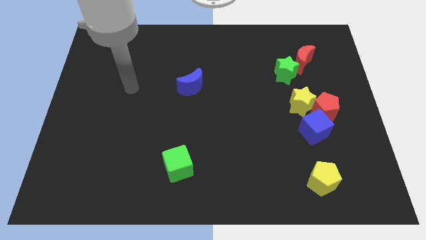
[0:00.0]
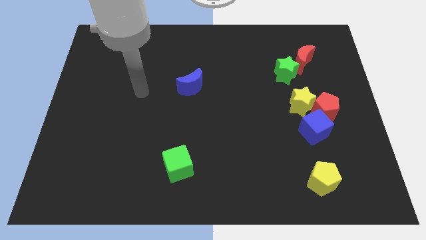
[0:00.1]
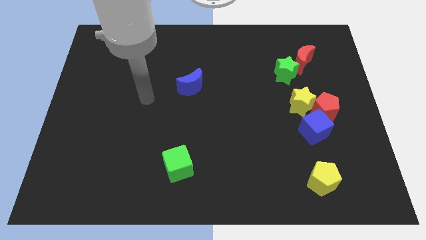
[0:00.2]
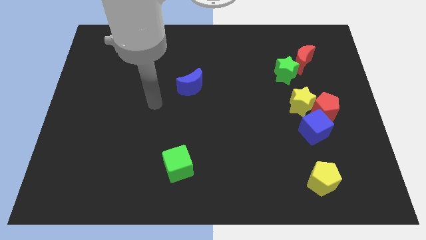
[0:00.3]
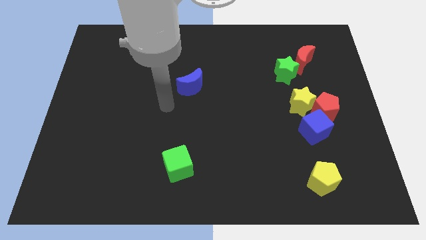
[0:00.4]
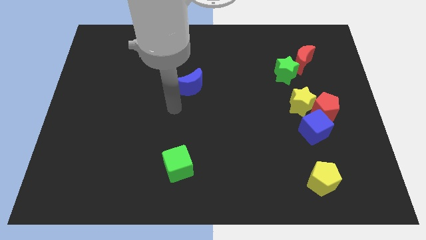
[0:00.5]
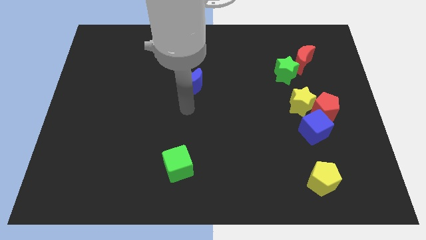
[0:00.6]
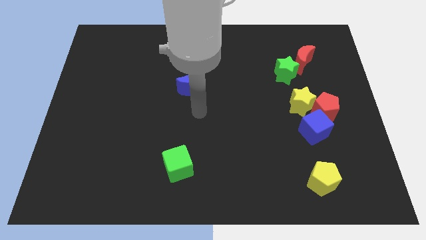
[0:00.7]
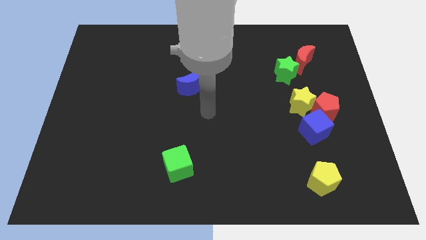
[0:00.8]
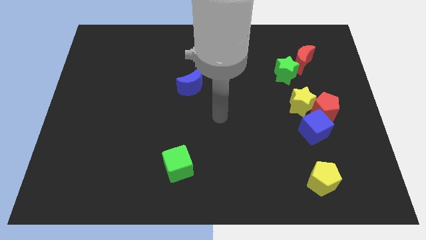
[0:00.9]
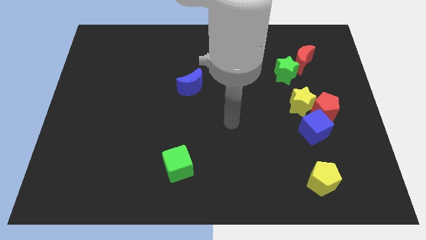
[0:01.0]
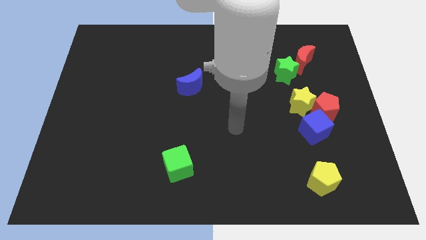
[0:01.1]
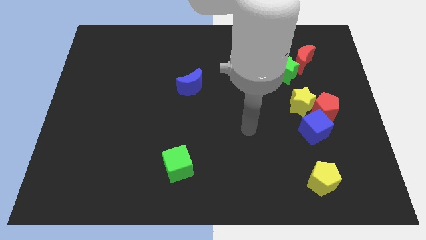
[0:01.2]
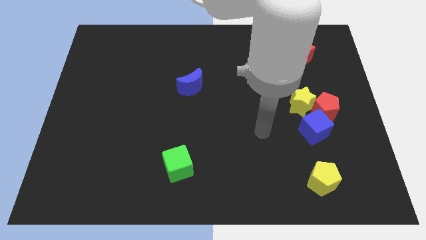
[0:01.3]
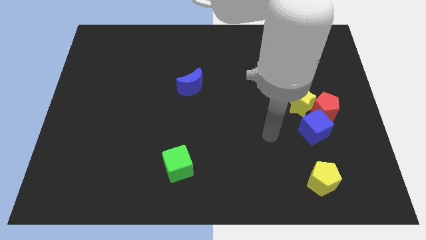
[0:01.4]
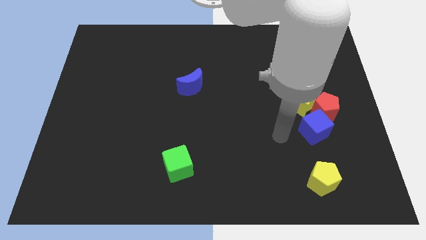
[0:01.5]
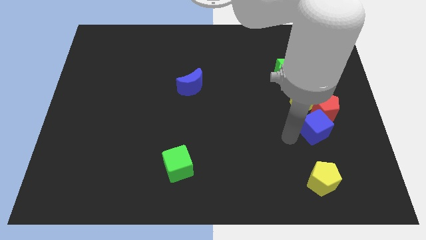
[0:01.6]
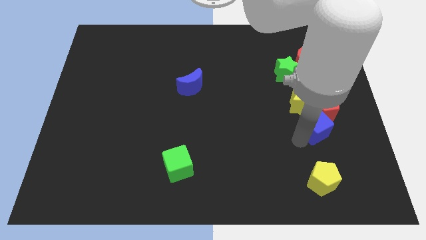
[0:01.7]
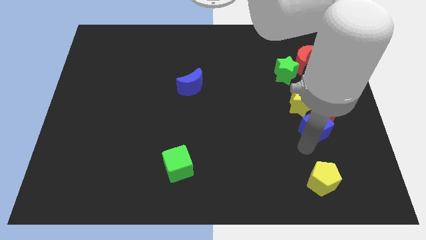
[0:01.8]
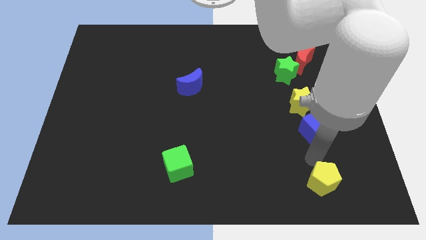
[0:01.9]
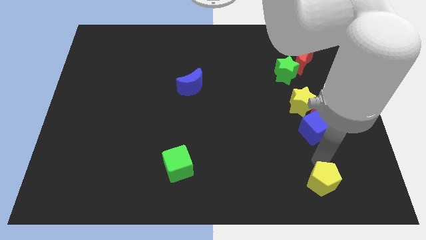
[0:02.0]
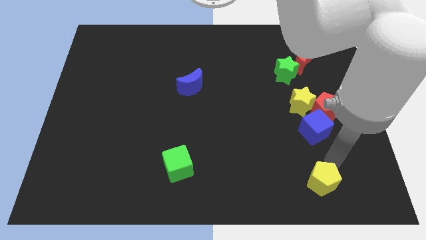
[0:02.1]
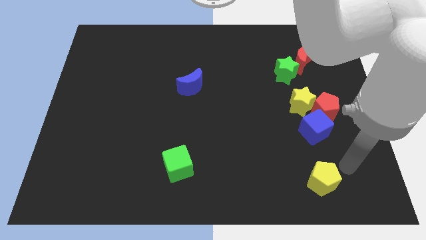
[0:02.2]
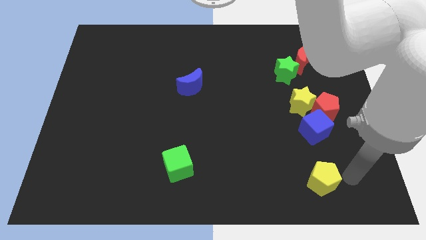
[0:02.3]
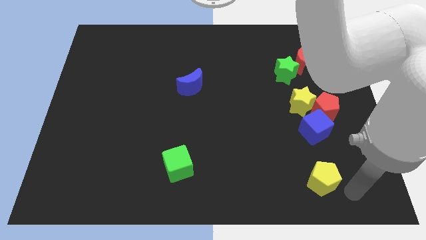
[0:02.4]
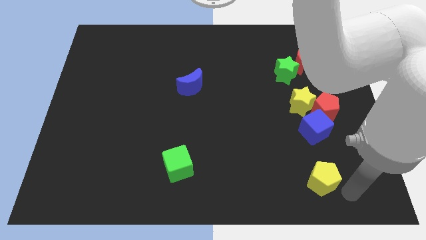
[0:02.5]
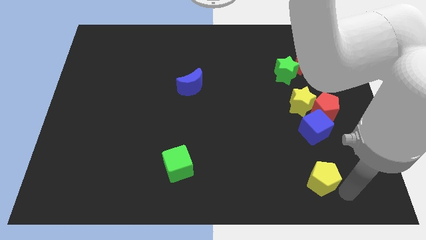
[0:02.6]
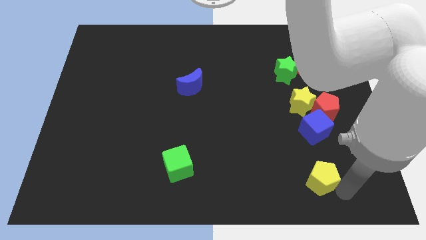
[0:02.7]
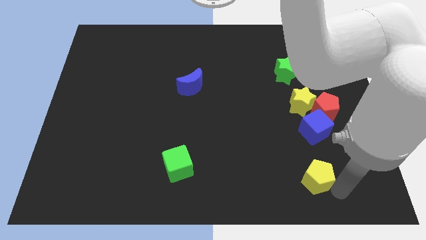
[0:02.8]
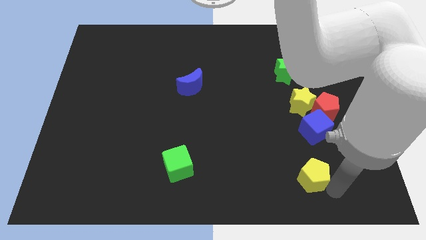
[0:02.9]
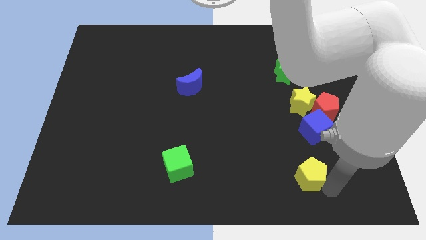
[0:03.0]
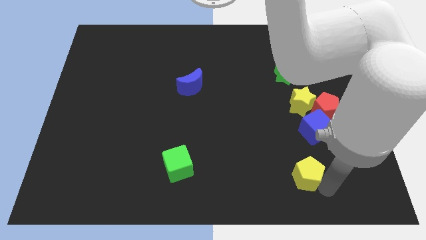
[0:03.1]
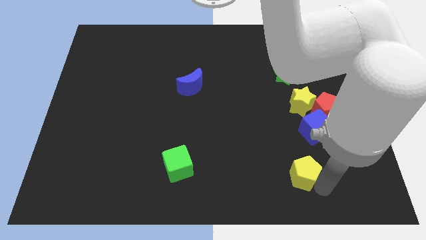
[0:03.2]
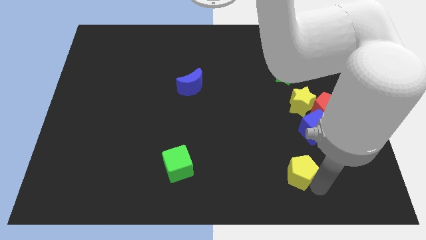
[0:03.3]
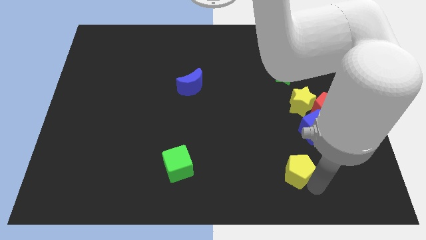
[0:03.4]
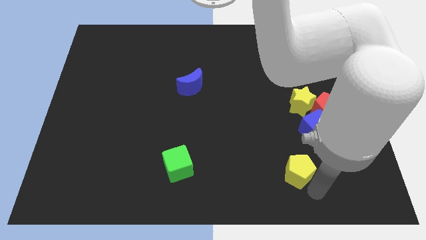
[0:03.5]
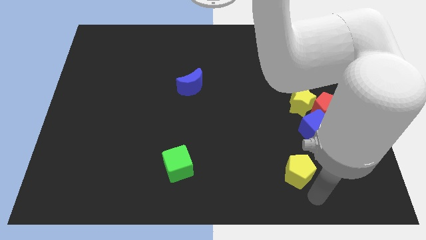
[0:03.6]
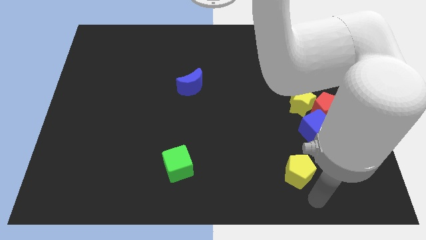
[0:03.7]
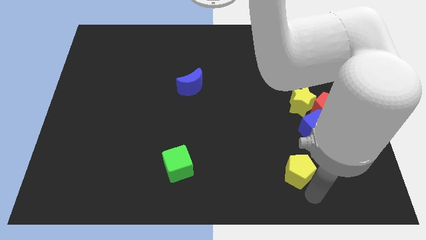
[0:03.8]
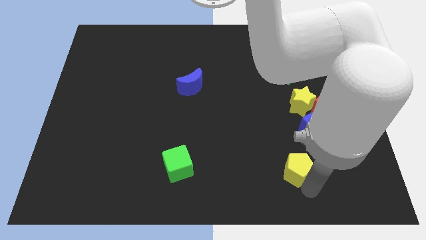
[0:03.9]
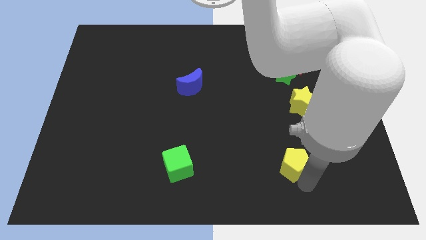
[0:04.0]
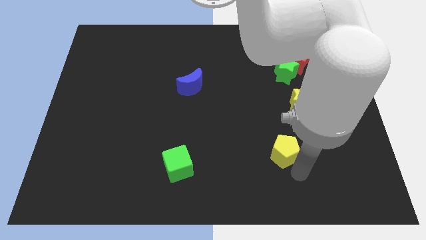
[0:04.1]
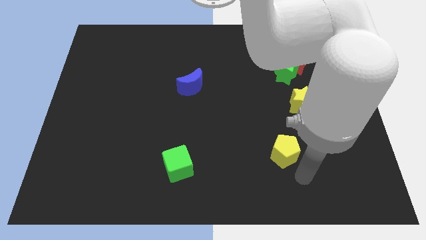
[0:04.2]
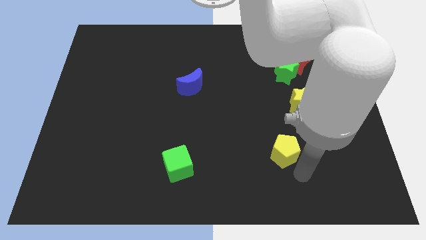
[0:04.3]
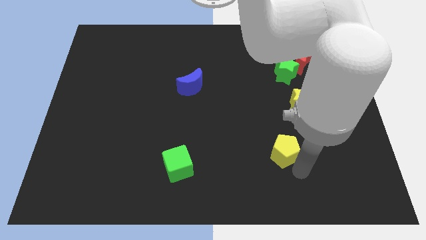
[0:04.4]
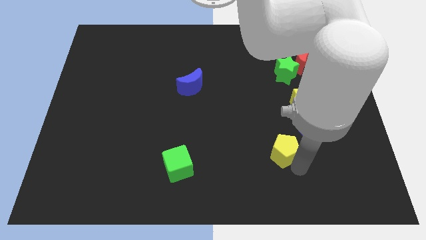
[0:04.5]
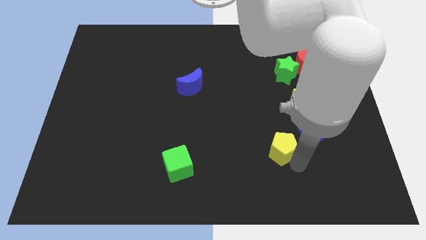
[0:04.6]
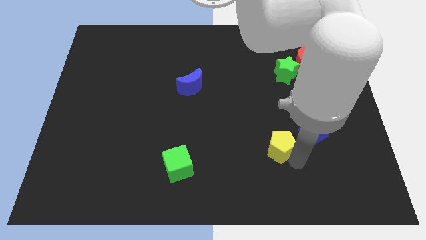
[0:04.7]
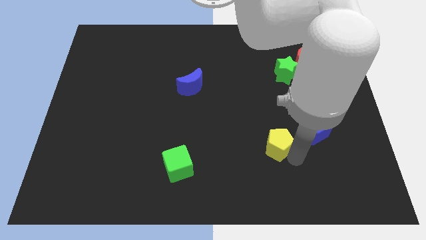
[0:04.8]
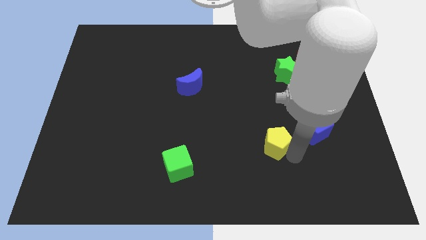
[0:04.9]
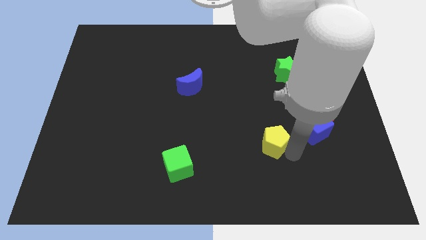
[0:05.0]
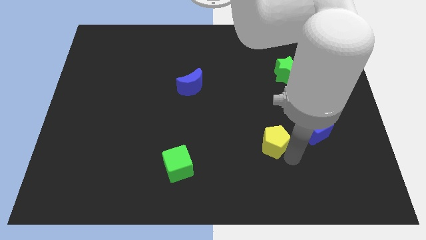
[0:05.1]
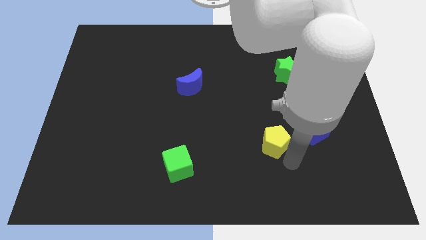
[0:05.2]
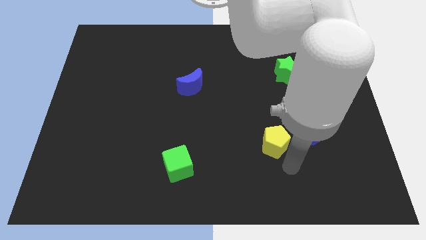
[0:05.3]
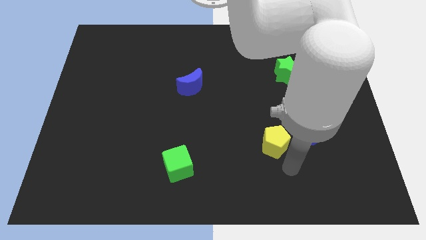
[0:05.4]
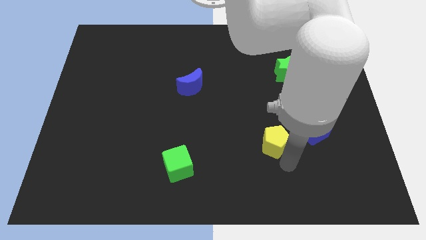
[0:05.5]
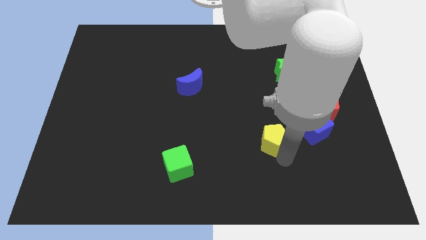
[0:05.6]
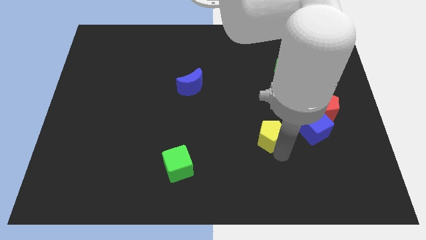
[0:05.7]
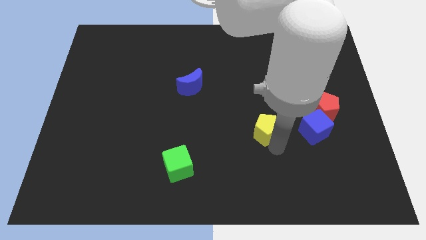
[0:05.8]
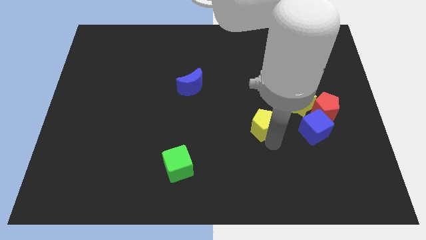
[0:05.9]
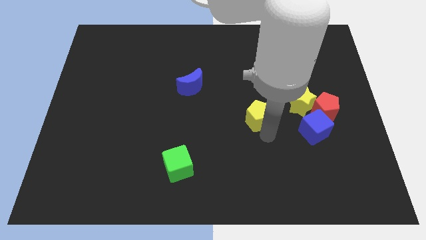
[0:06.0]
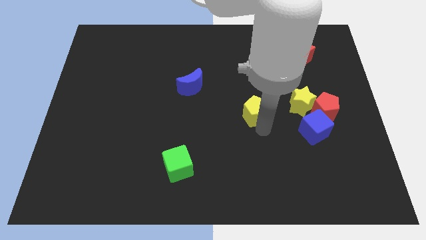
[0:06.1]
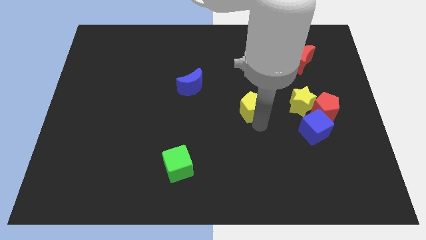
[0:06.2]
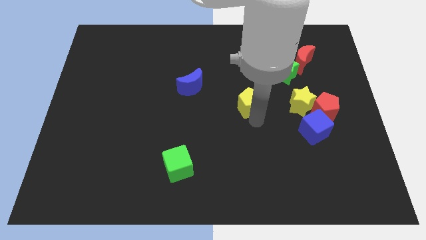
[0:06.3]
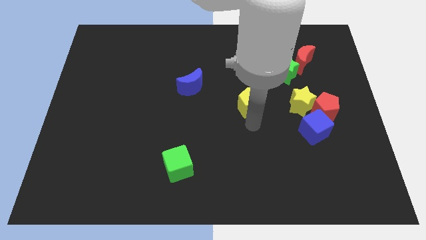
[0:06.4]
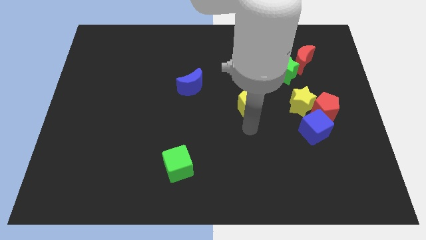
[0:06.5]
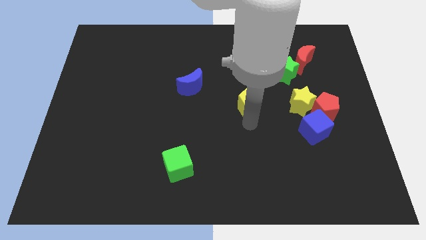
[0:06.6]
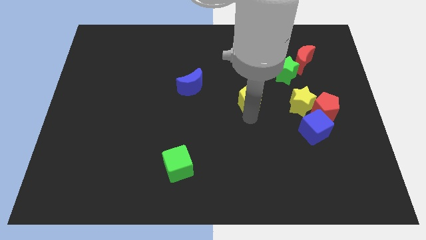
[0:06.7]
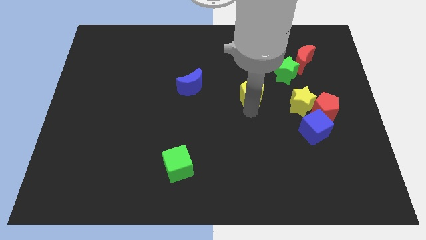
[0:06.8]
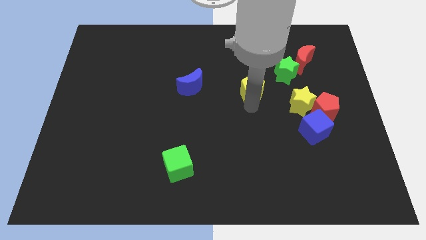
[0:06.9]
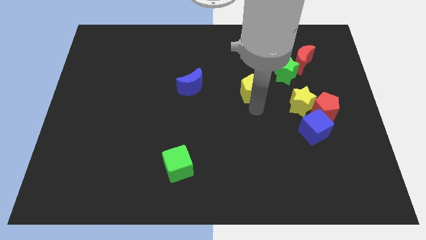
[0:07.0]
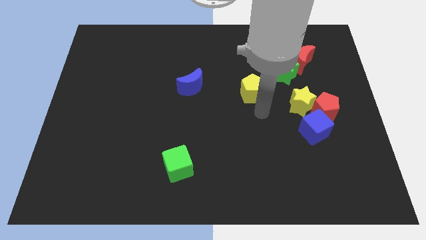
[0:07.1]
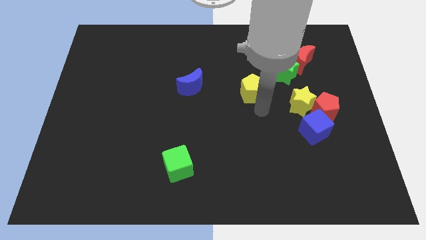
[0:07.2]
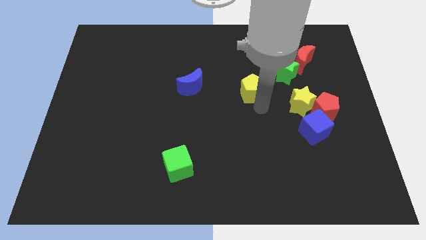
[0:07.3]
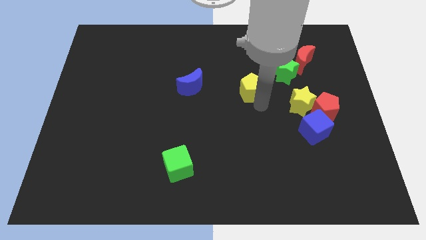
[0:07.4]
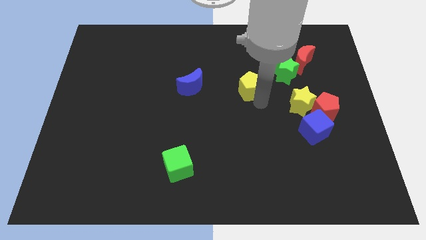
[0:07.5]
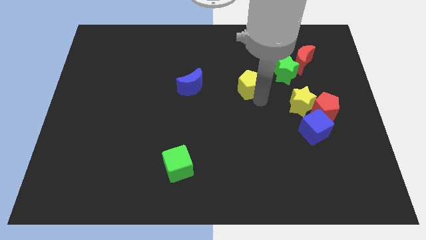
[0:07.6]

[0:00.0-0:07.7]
move the yellow pentagon to the left of the green star
